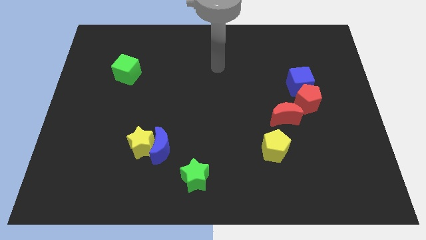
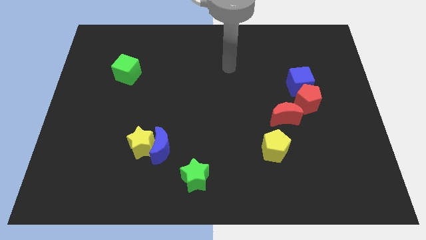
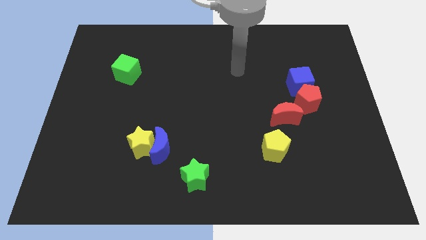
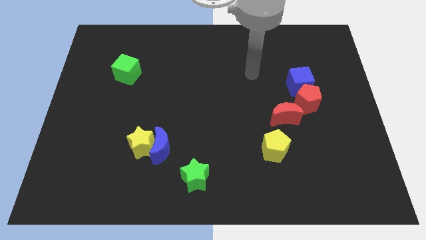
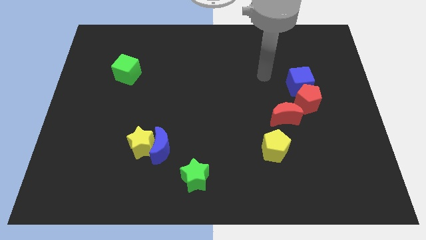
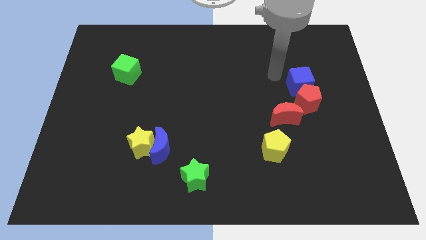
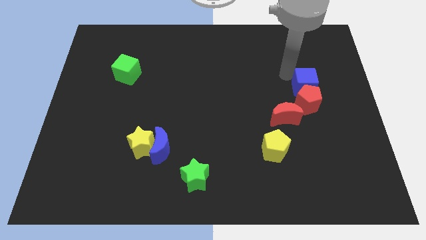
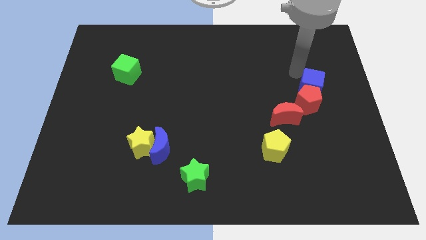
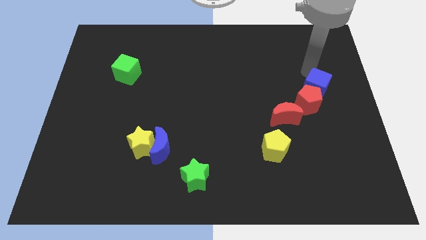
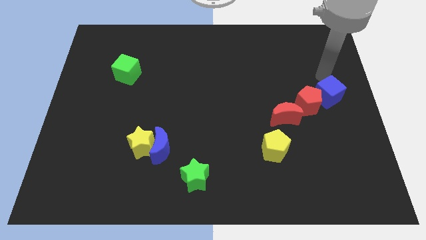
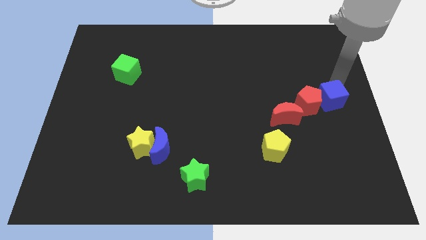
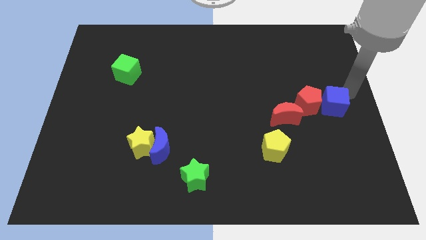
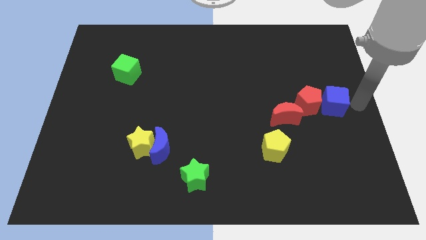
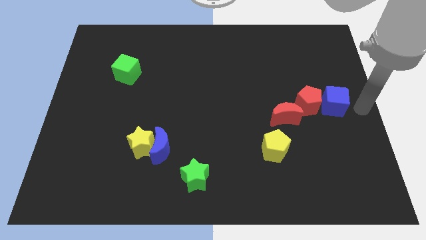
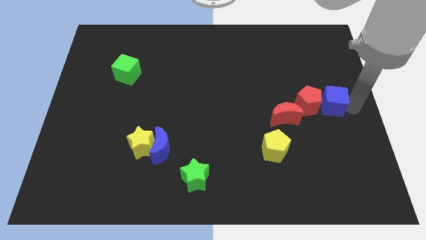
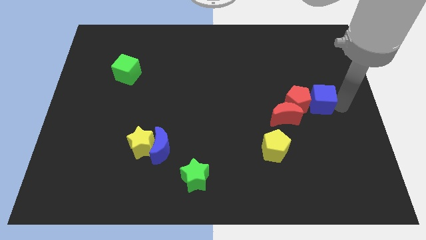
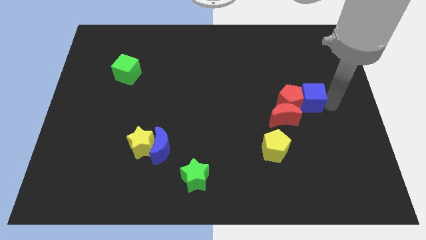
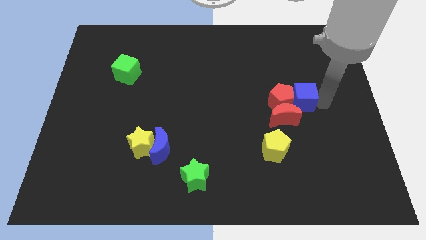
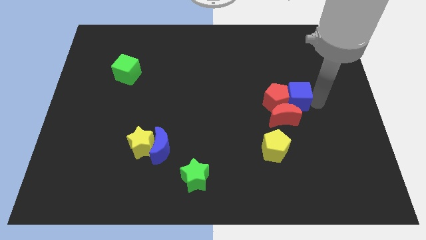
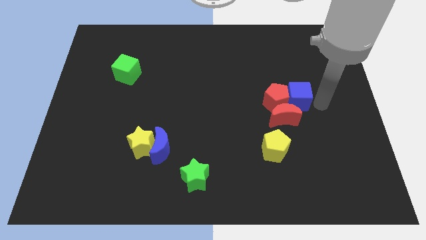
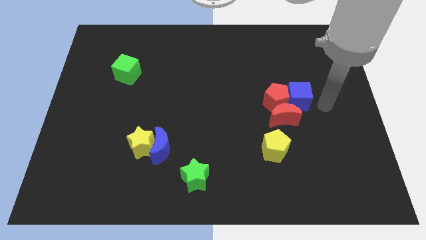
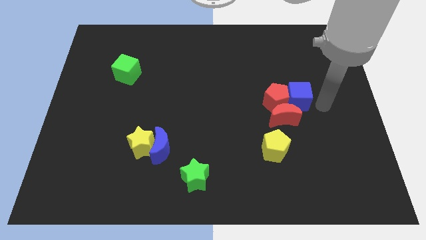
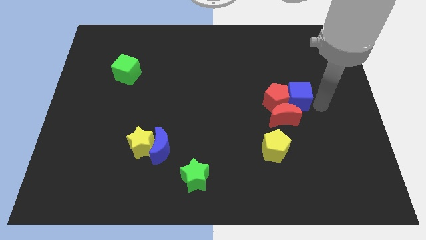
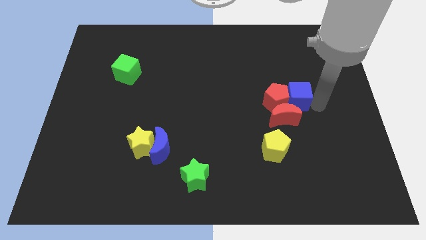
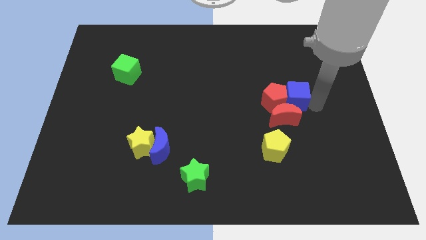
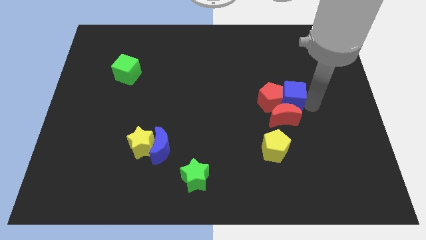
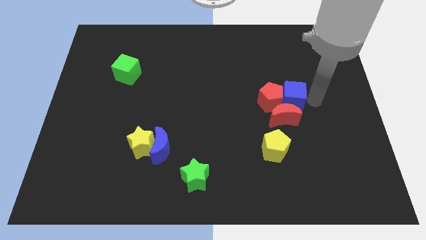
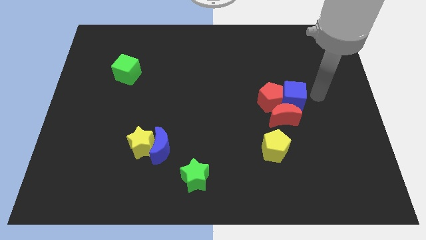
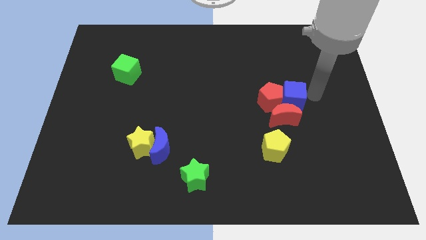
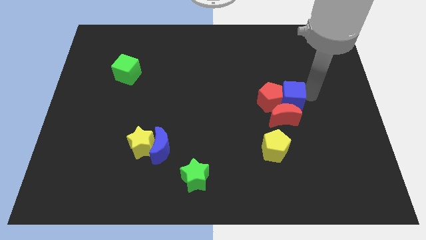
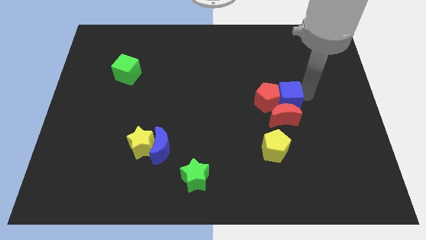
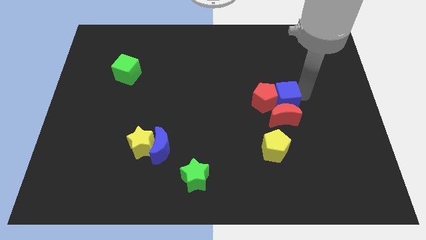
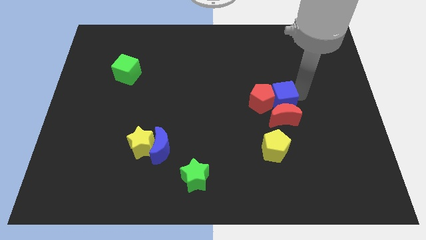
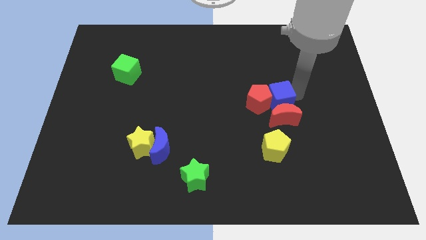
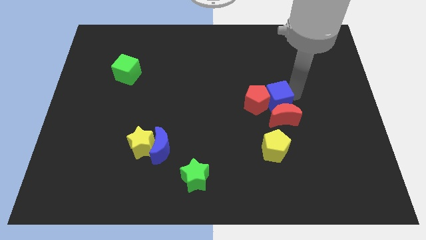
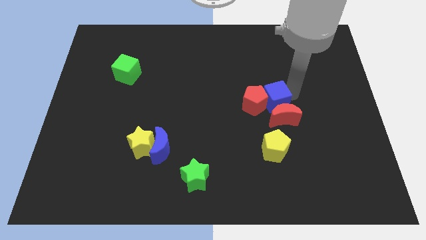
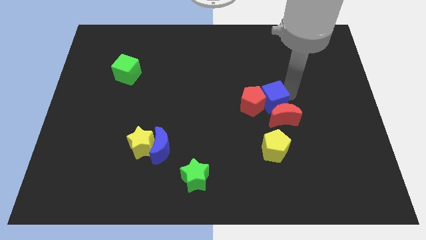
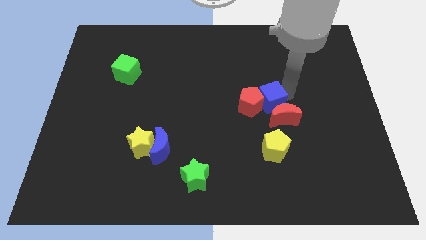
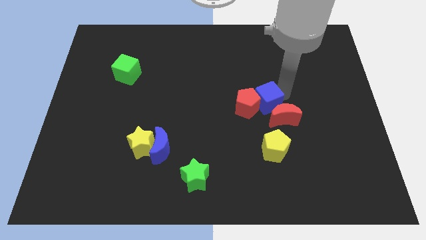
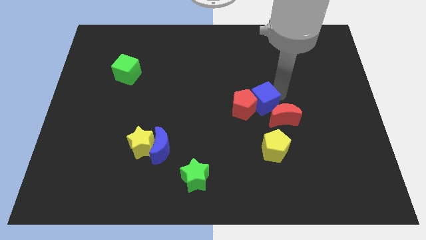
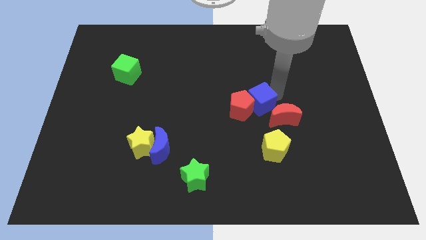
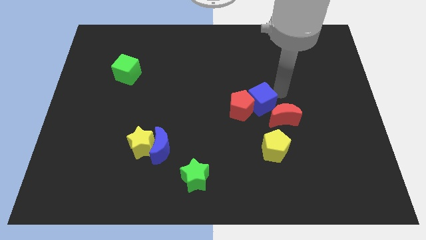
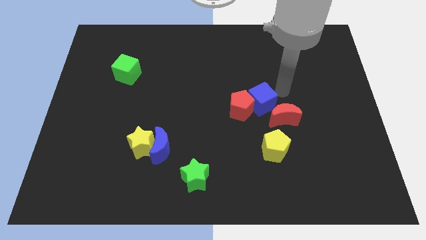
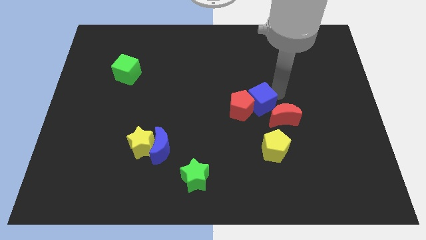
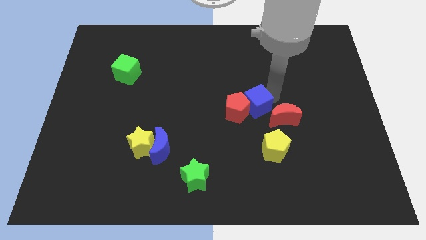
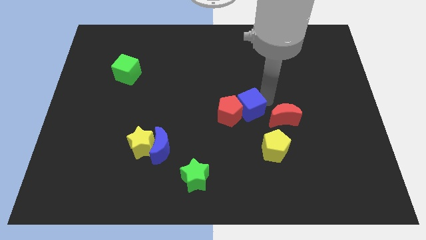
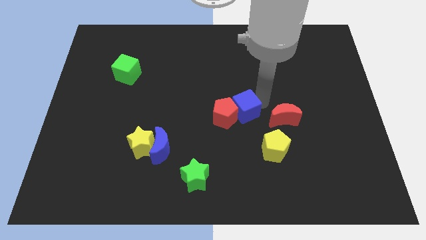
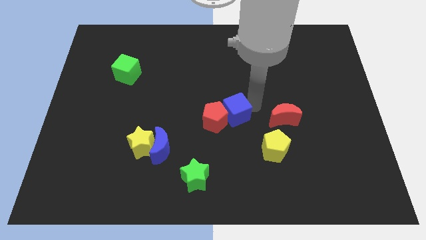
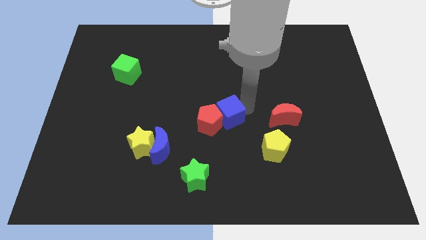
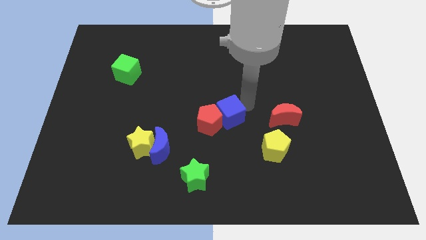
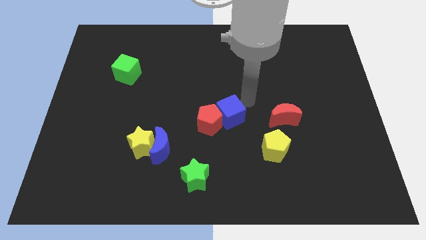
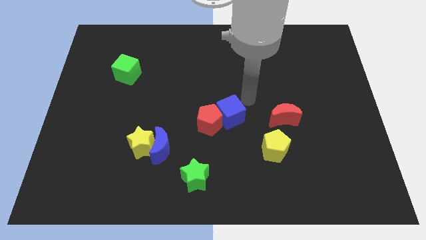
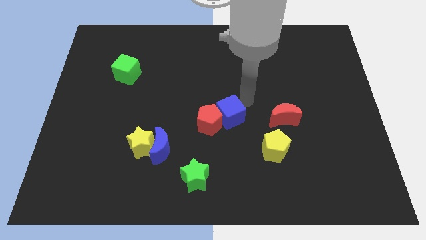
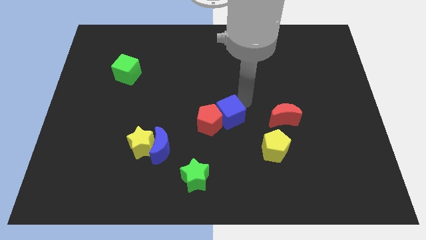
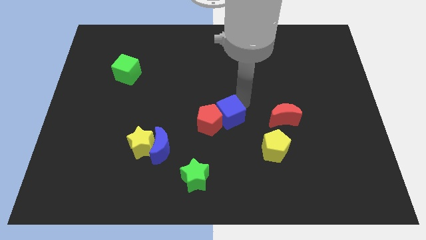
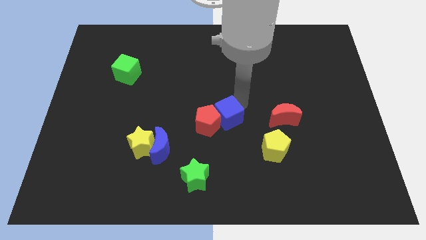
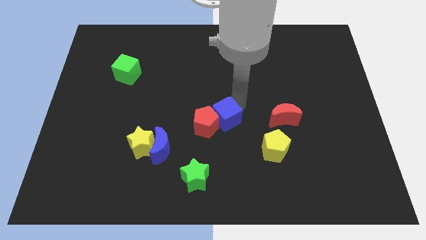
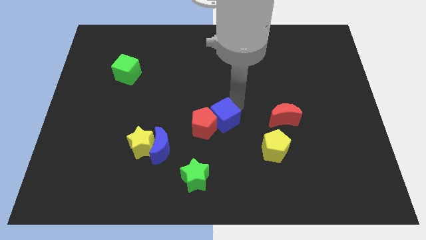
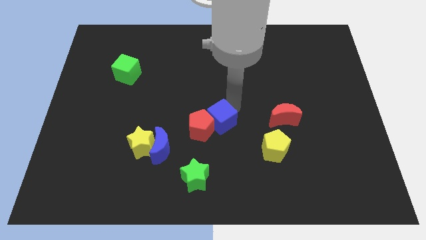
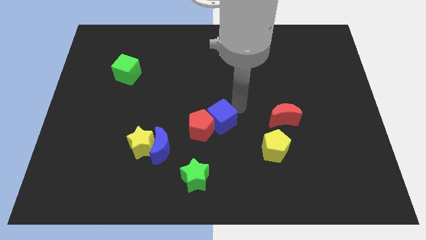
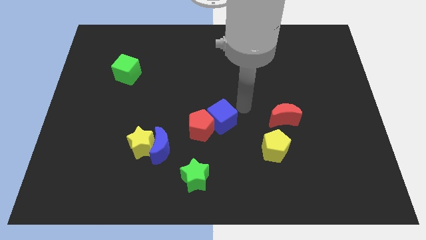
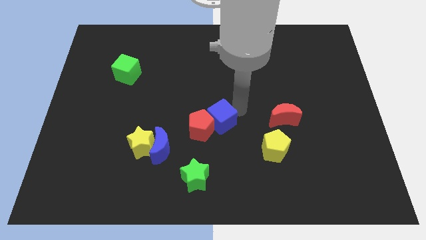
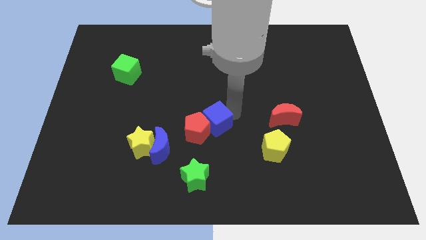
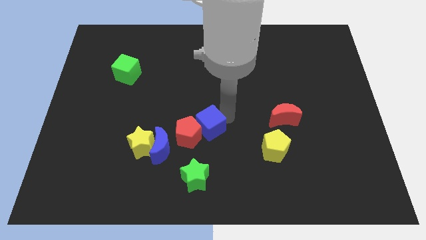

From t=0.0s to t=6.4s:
move the blue cube to the top of the green star
